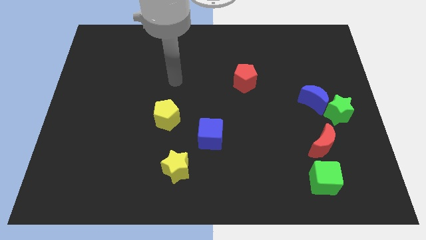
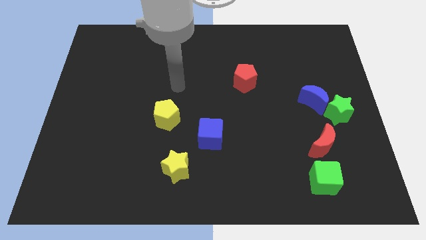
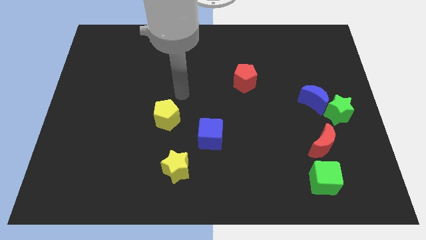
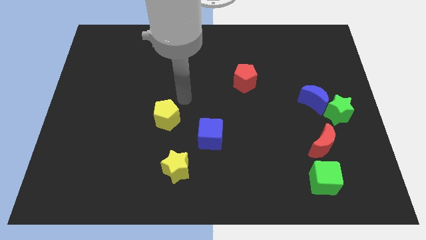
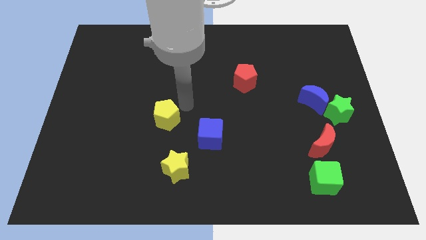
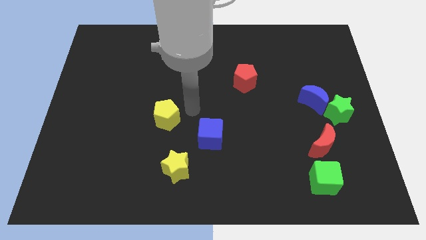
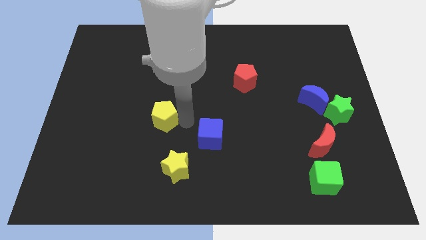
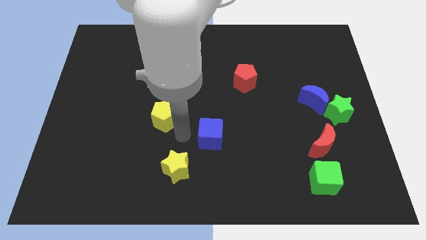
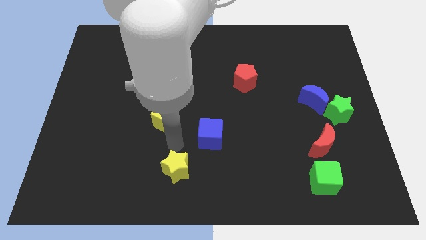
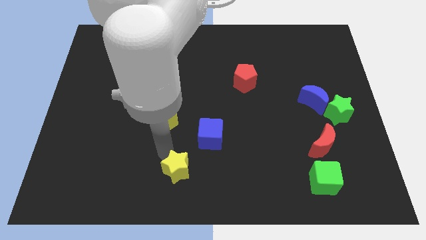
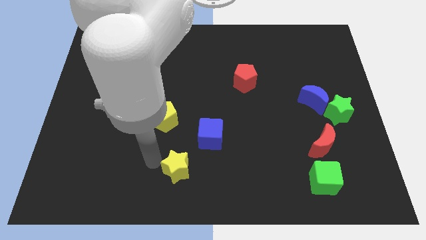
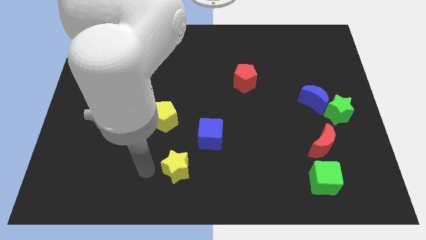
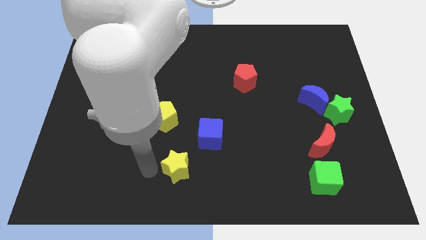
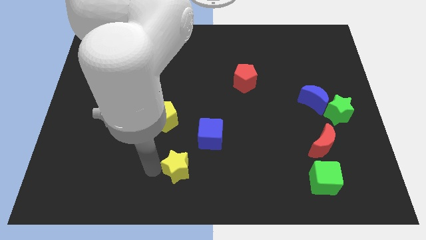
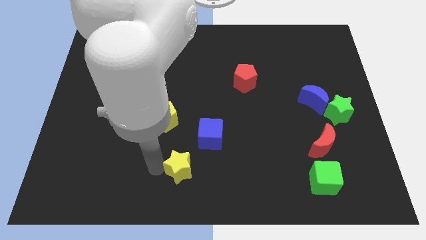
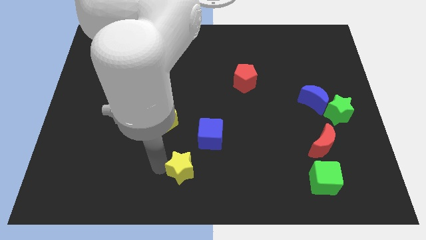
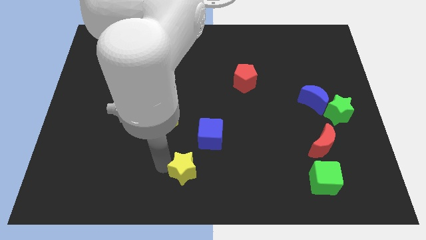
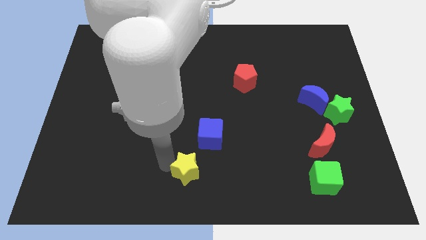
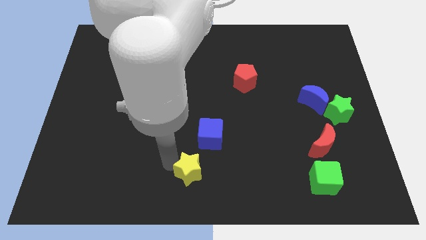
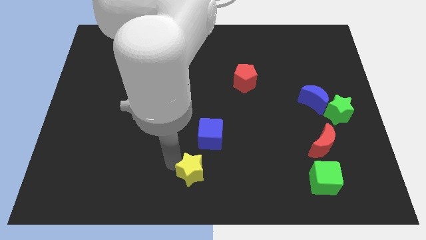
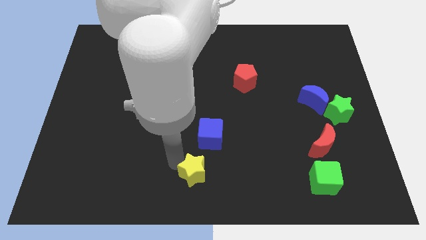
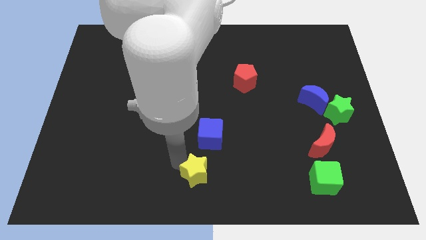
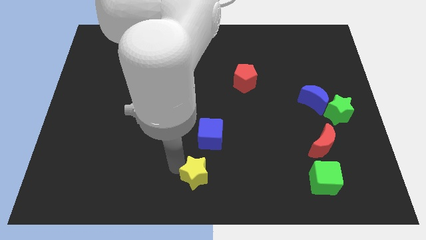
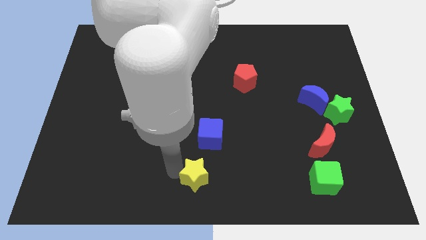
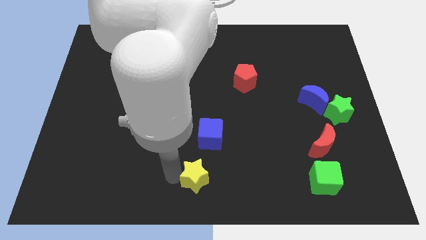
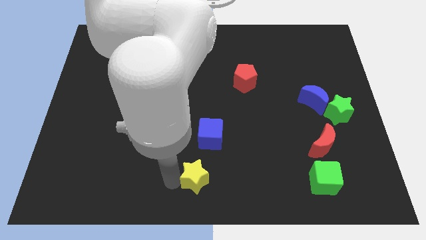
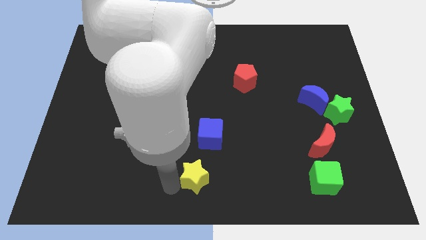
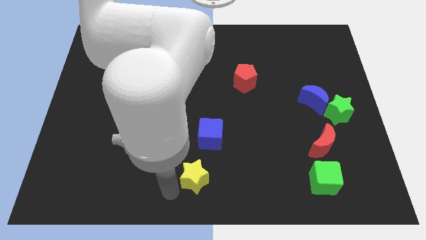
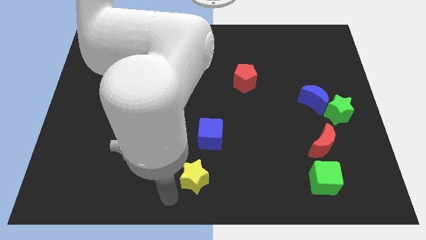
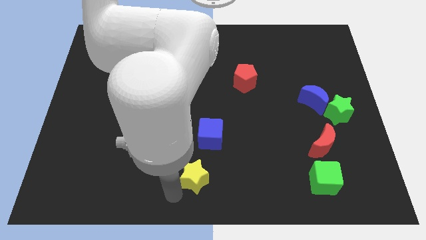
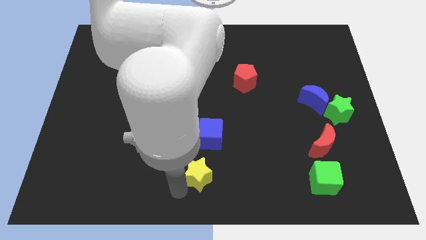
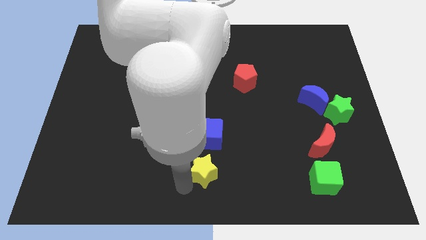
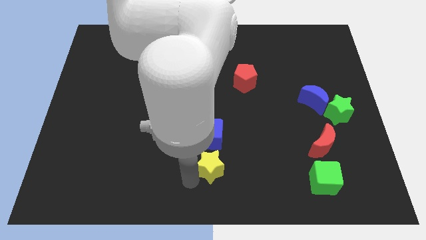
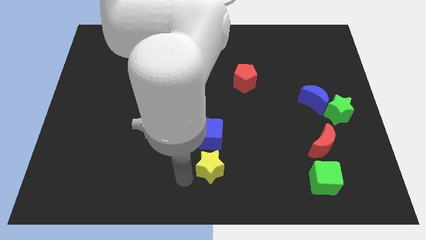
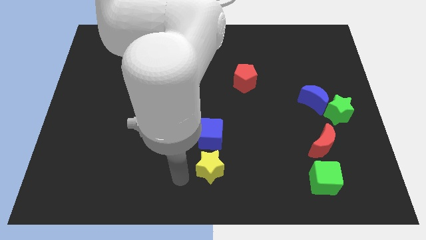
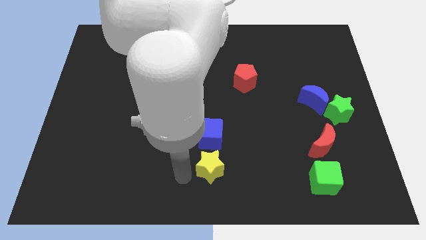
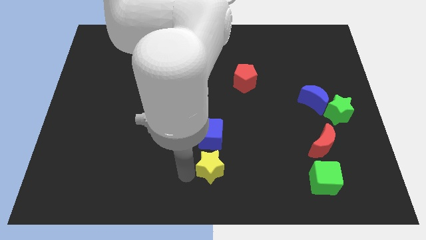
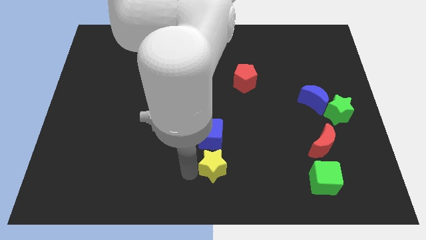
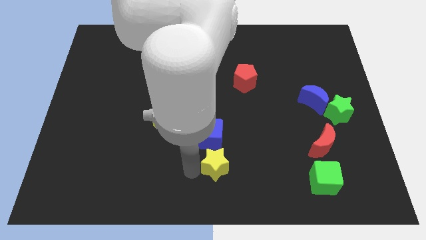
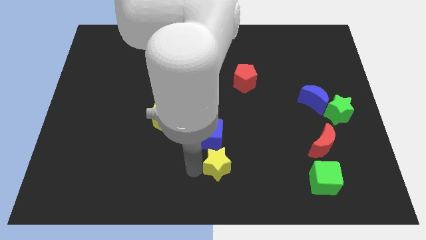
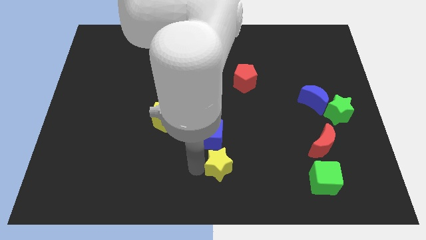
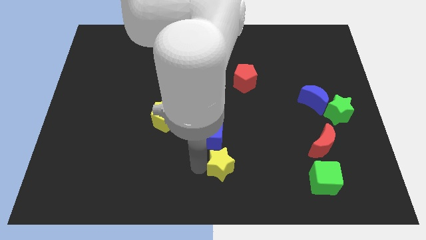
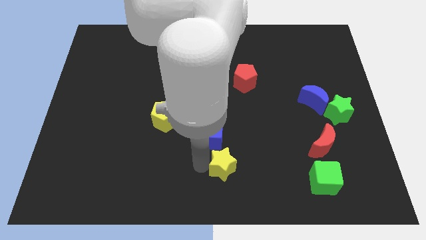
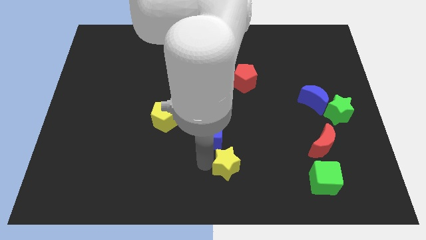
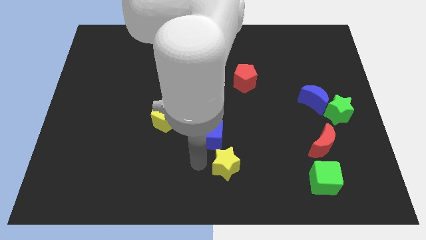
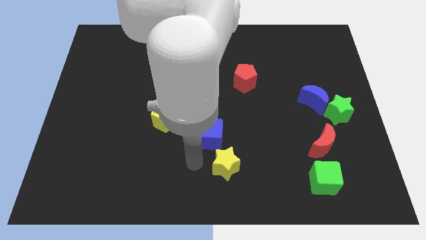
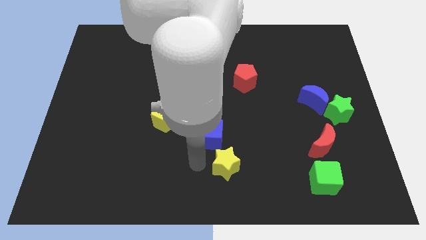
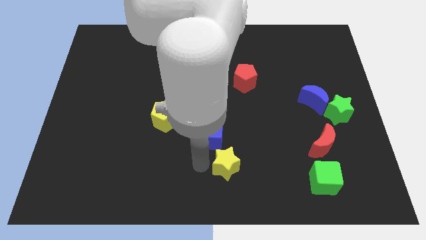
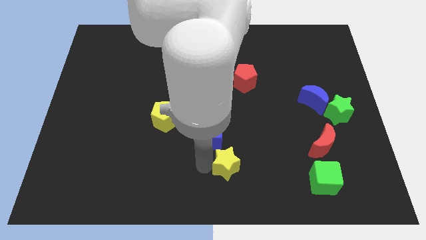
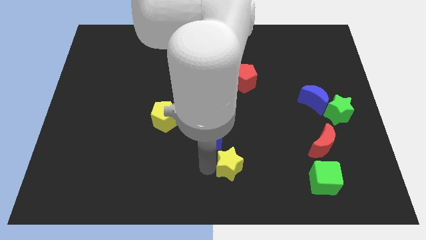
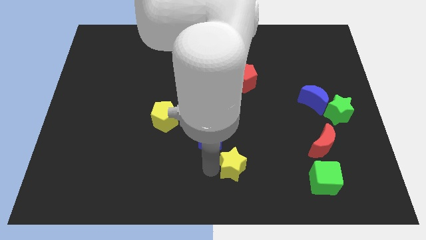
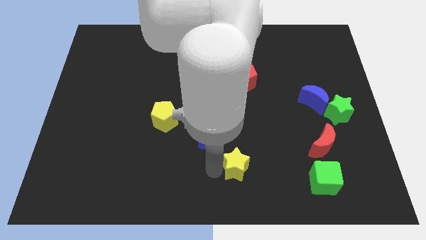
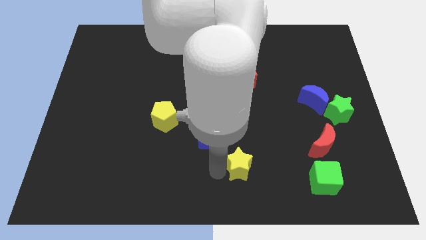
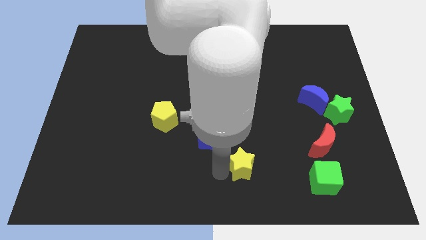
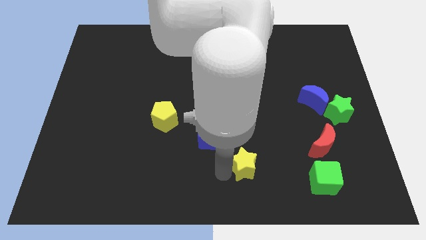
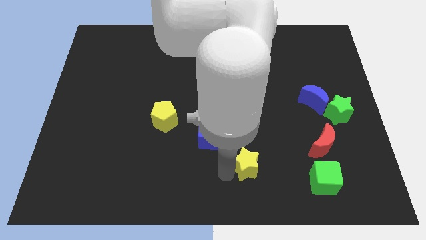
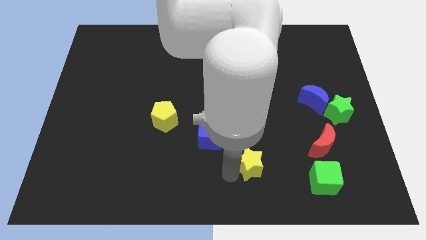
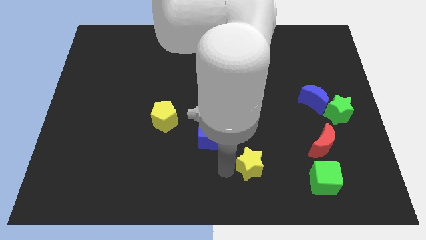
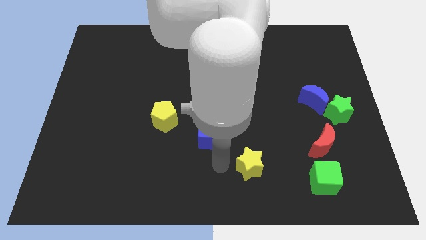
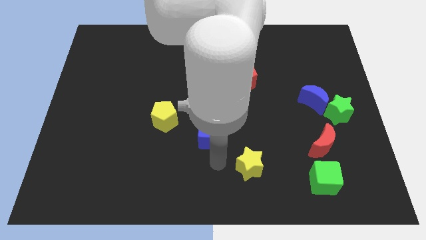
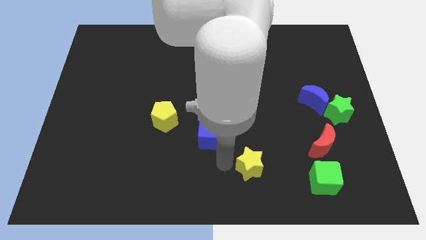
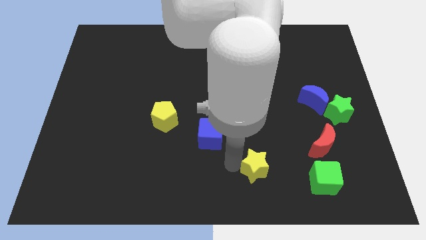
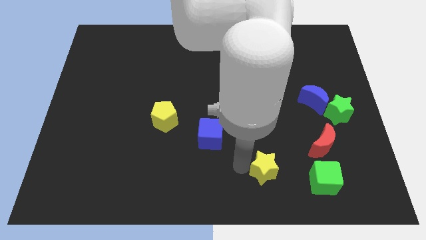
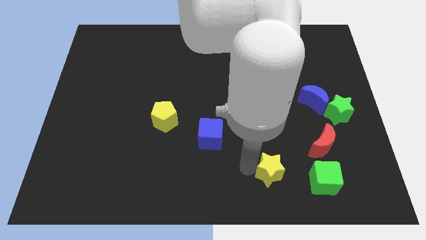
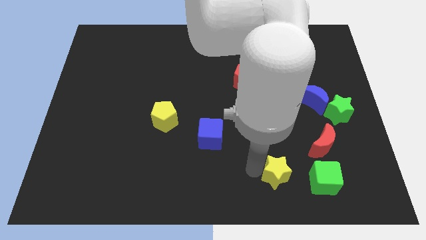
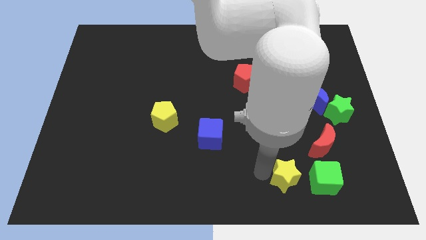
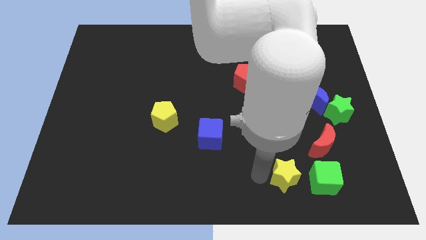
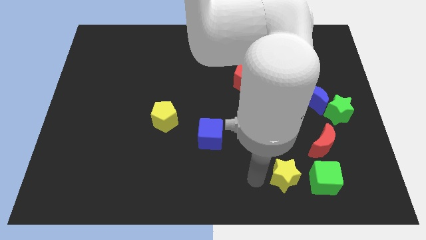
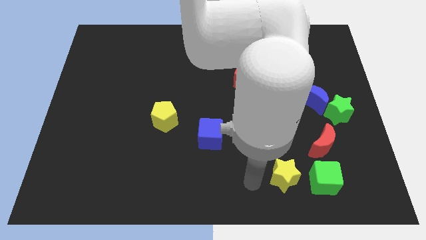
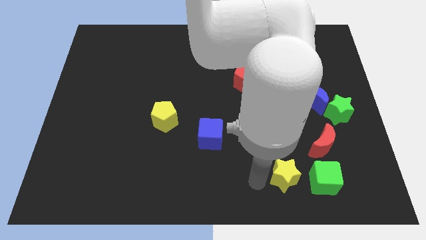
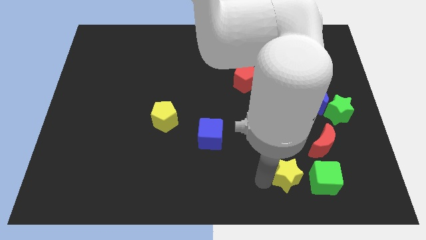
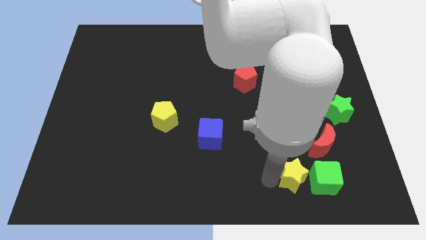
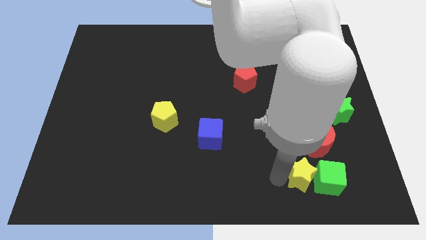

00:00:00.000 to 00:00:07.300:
slide the yellow star towards the green cube
